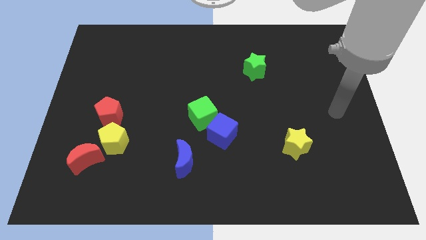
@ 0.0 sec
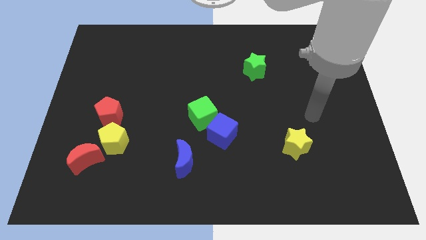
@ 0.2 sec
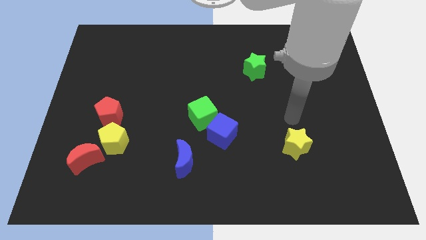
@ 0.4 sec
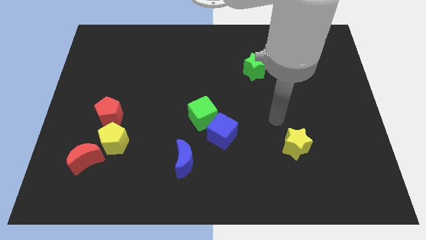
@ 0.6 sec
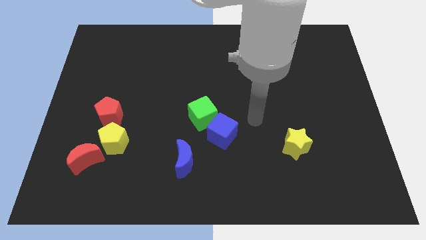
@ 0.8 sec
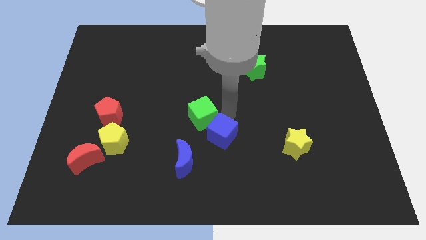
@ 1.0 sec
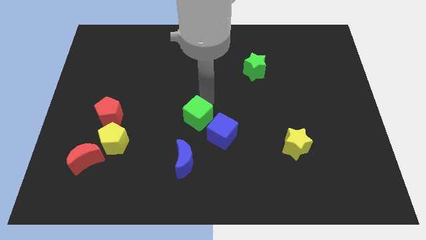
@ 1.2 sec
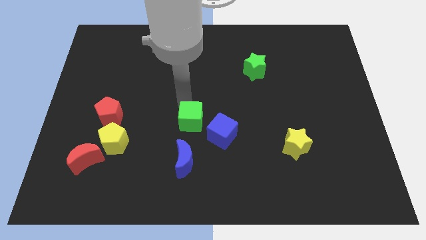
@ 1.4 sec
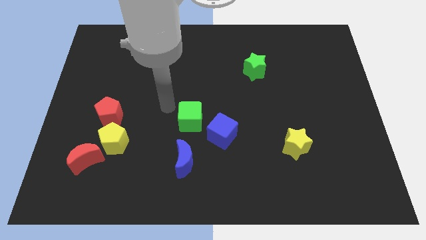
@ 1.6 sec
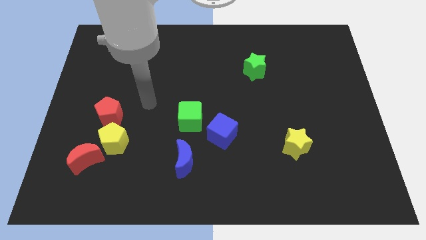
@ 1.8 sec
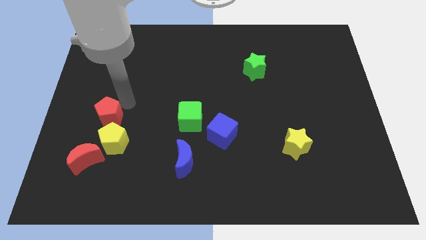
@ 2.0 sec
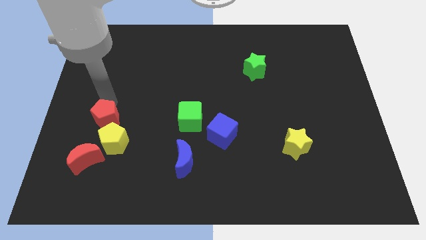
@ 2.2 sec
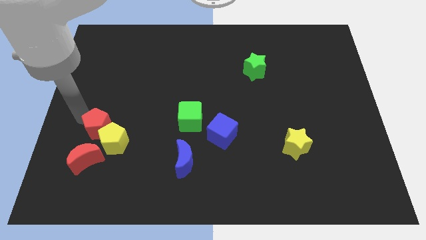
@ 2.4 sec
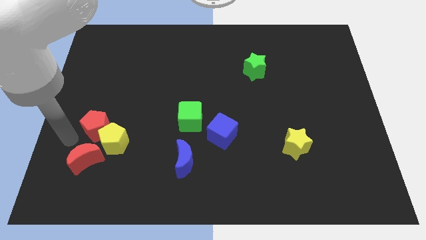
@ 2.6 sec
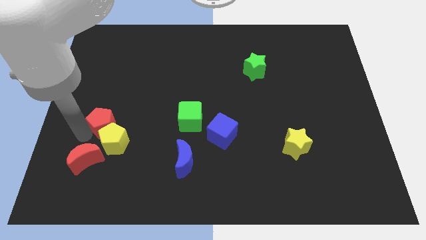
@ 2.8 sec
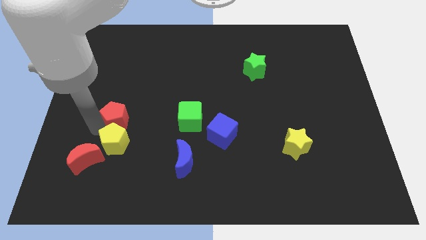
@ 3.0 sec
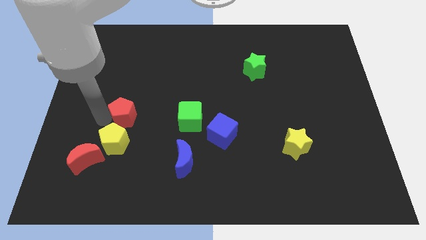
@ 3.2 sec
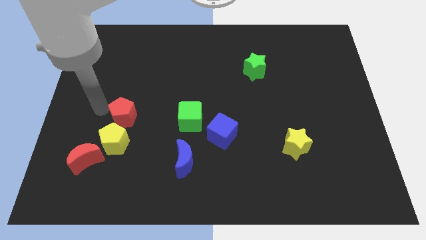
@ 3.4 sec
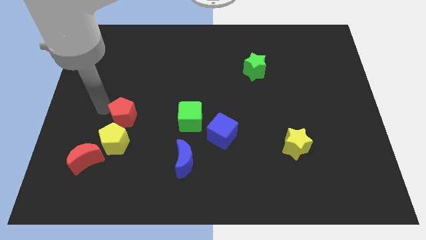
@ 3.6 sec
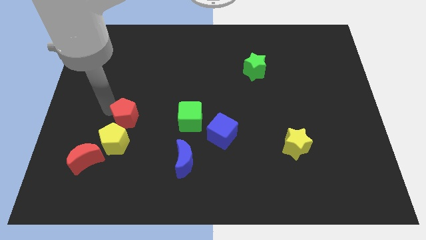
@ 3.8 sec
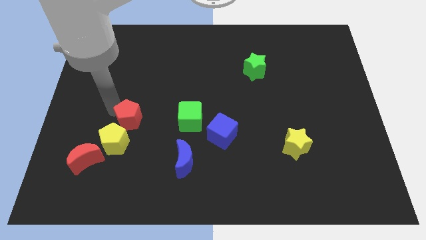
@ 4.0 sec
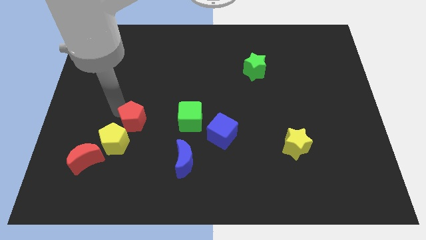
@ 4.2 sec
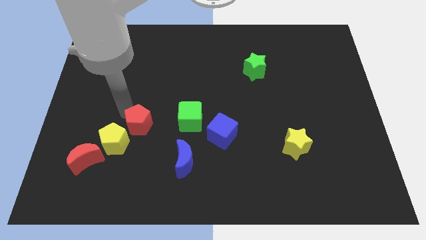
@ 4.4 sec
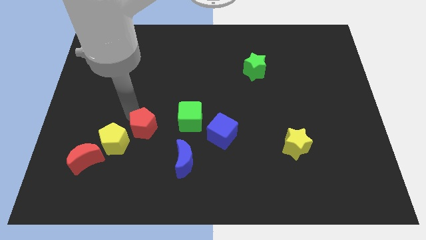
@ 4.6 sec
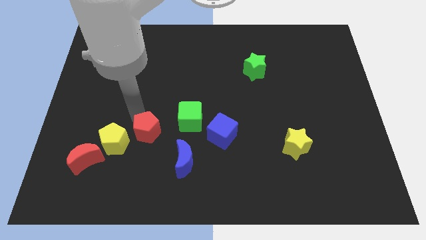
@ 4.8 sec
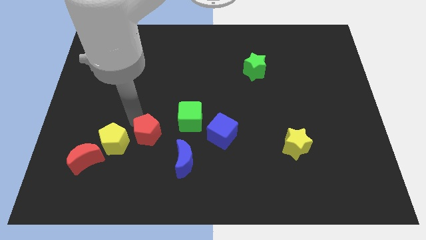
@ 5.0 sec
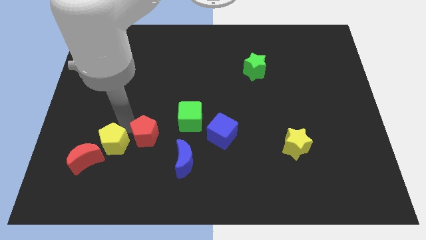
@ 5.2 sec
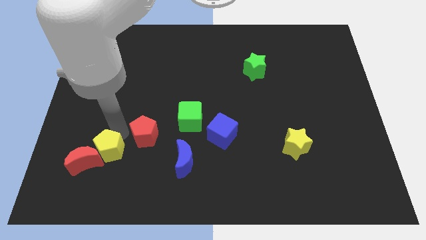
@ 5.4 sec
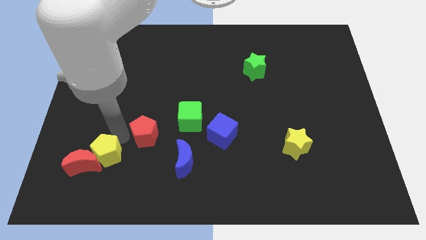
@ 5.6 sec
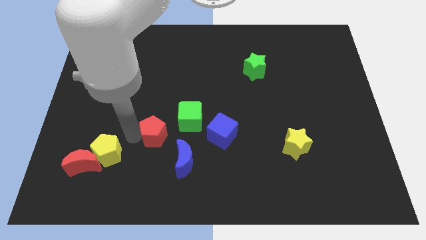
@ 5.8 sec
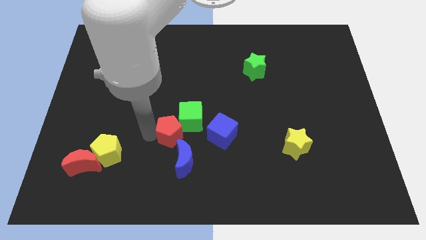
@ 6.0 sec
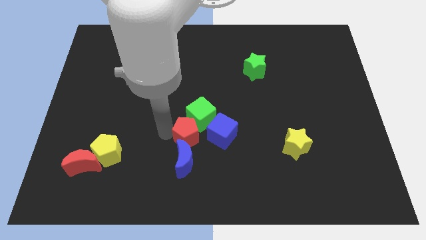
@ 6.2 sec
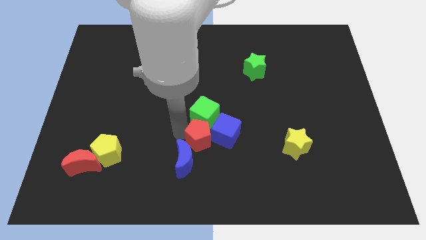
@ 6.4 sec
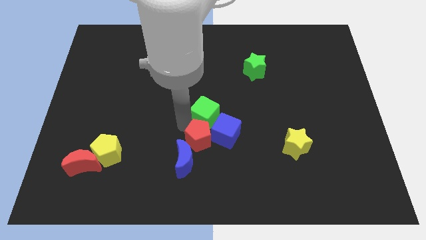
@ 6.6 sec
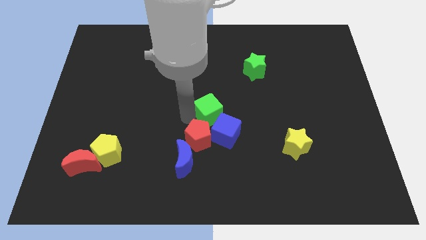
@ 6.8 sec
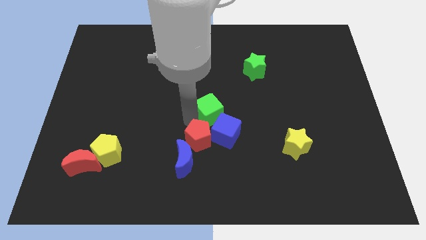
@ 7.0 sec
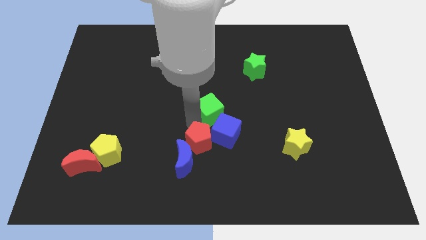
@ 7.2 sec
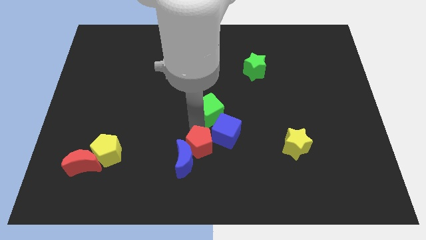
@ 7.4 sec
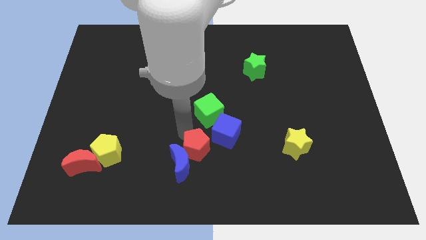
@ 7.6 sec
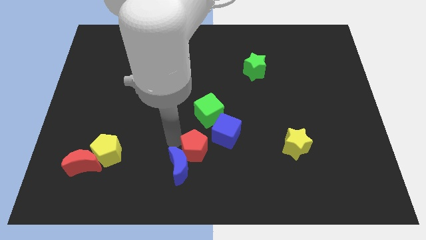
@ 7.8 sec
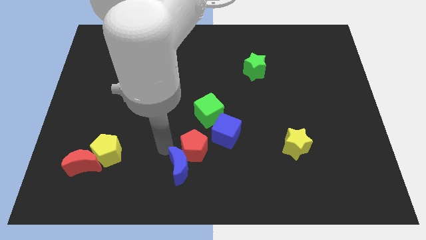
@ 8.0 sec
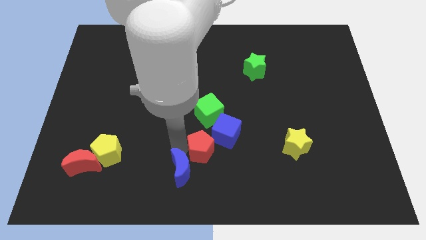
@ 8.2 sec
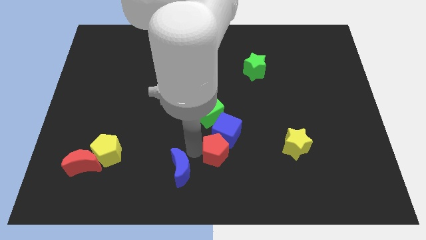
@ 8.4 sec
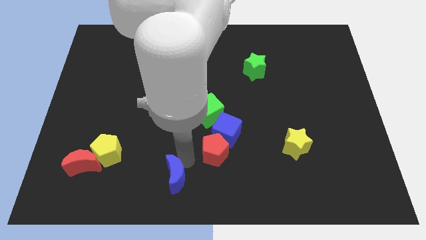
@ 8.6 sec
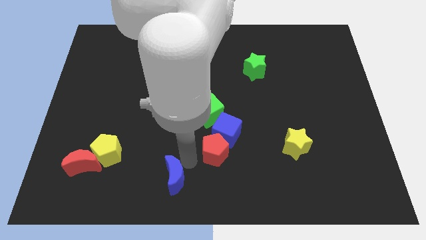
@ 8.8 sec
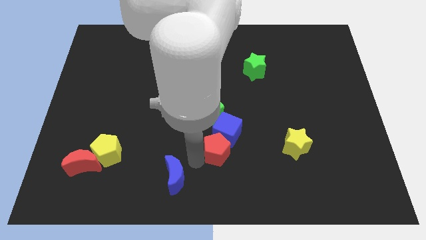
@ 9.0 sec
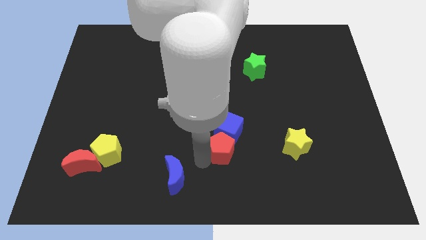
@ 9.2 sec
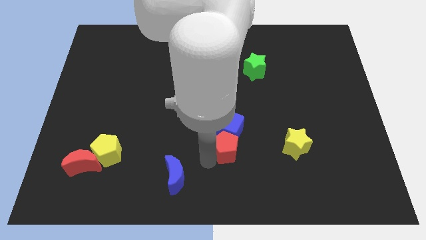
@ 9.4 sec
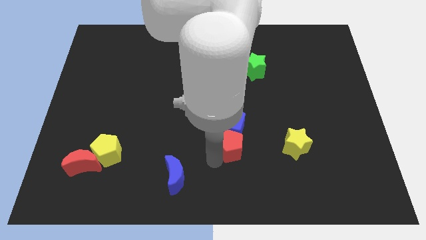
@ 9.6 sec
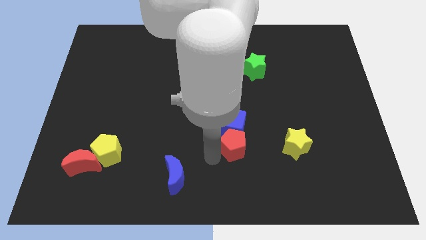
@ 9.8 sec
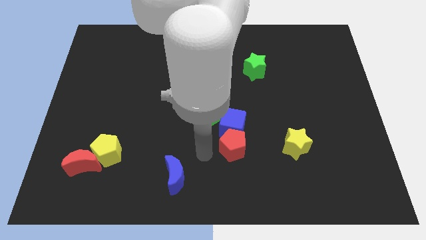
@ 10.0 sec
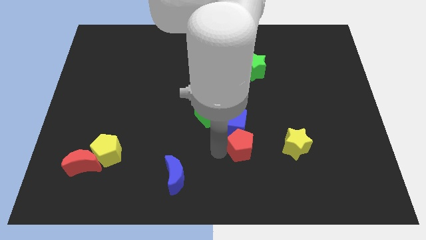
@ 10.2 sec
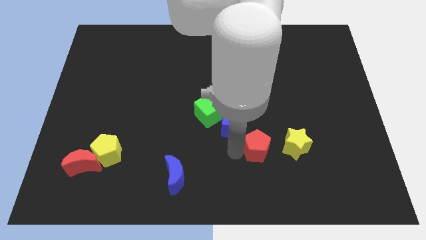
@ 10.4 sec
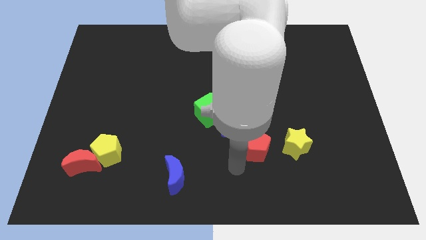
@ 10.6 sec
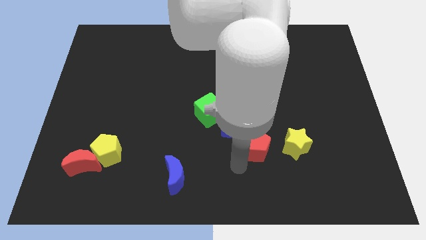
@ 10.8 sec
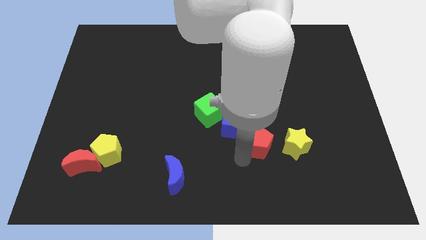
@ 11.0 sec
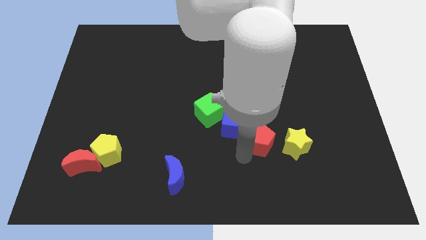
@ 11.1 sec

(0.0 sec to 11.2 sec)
move the red pentagon right of the blue cube

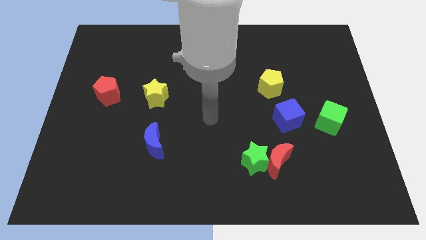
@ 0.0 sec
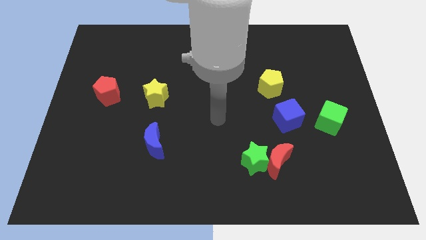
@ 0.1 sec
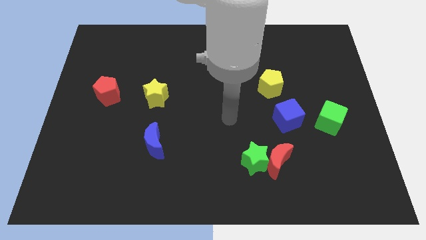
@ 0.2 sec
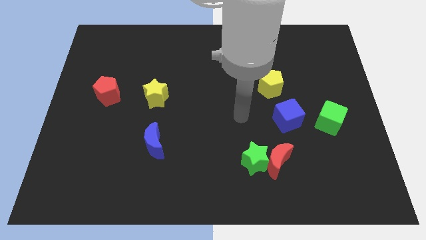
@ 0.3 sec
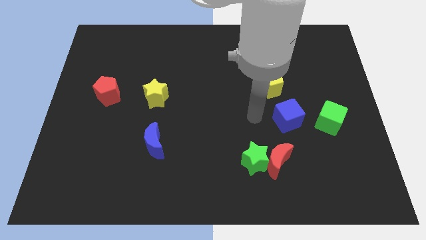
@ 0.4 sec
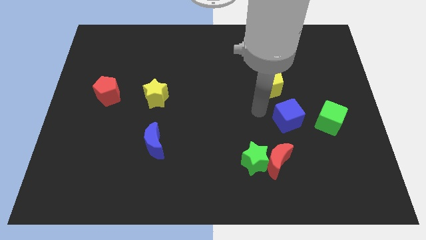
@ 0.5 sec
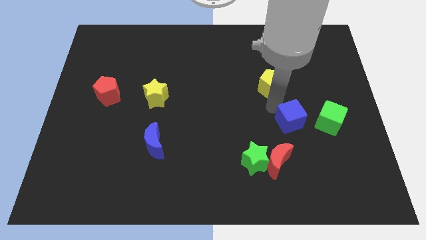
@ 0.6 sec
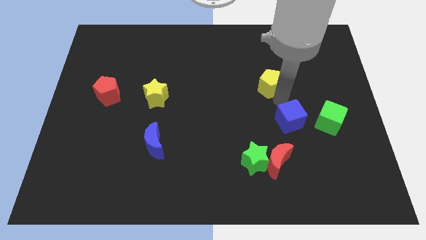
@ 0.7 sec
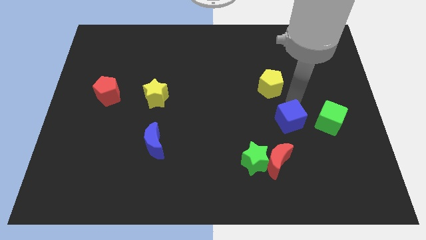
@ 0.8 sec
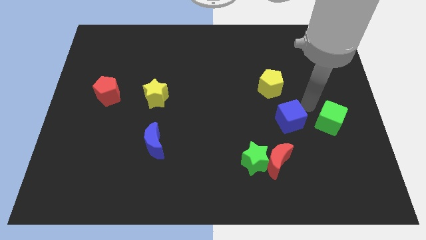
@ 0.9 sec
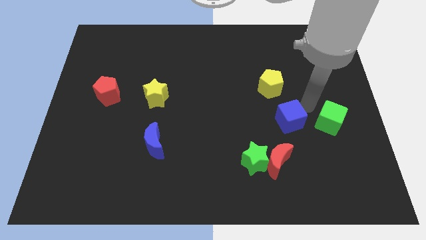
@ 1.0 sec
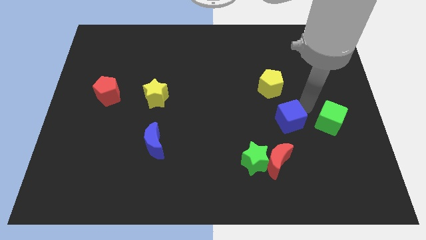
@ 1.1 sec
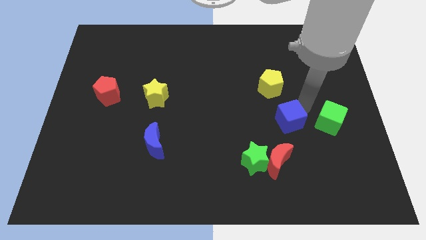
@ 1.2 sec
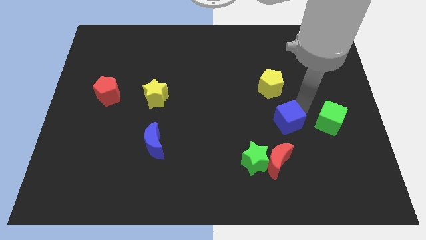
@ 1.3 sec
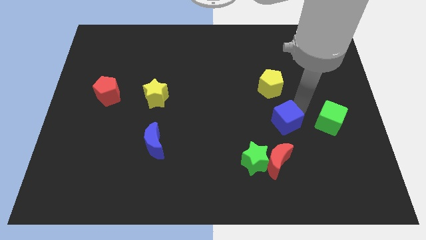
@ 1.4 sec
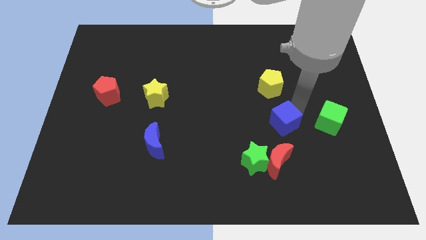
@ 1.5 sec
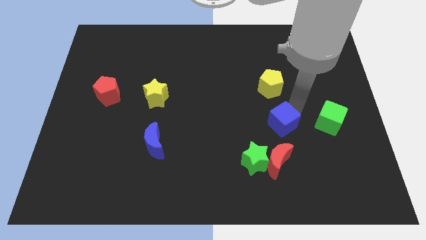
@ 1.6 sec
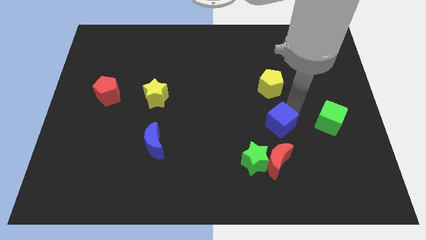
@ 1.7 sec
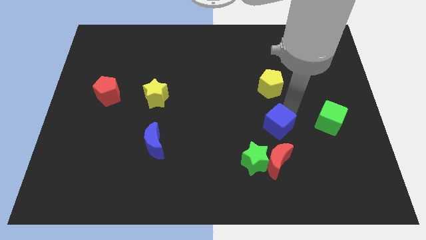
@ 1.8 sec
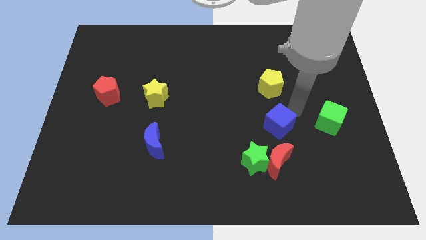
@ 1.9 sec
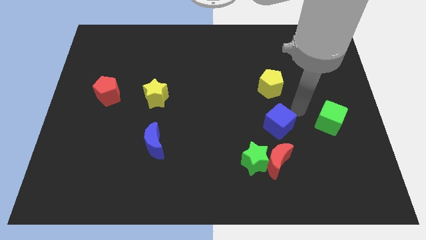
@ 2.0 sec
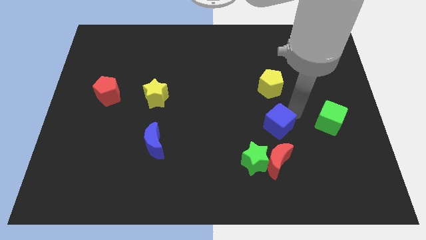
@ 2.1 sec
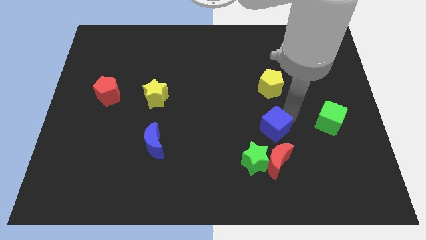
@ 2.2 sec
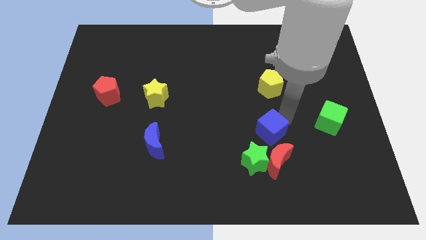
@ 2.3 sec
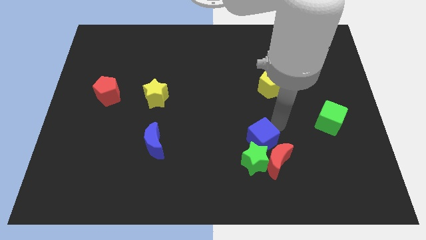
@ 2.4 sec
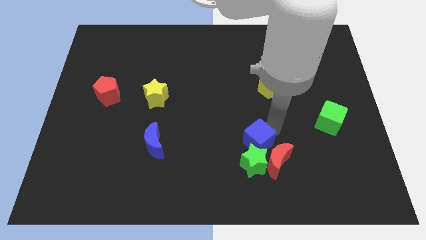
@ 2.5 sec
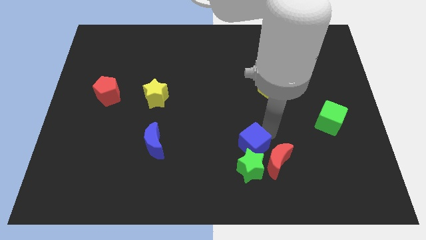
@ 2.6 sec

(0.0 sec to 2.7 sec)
push the blue cube to the left side of the red moon
